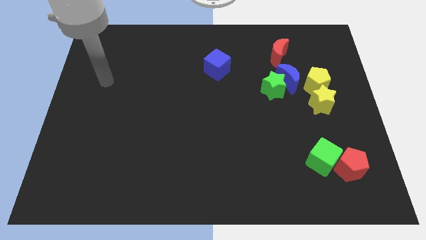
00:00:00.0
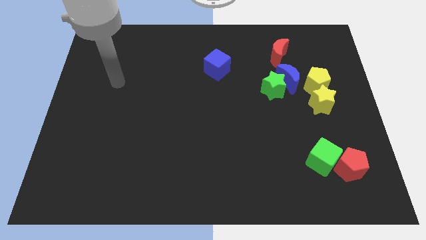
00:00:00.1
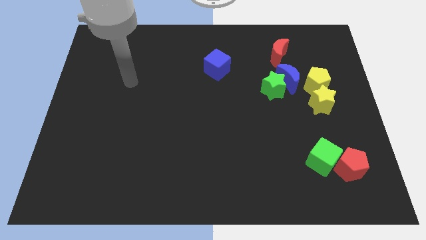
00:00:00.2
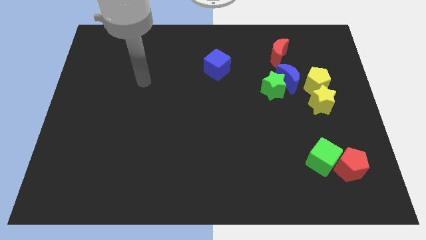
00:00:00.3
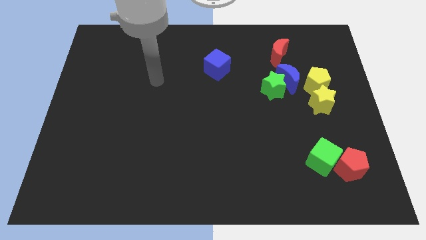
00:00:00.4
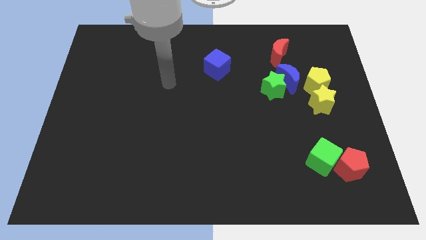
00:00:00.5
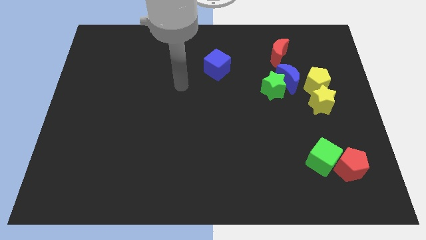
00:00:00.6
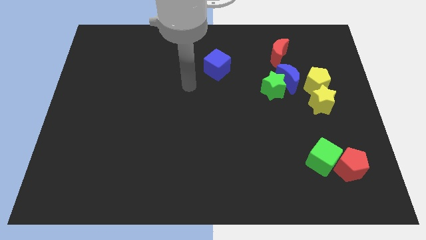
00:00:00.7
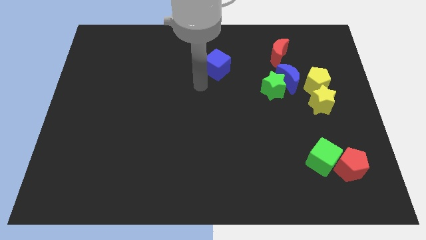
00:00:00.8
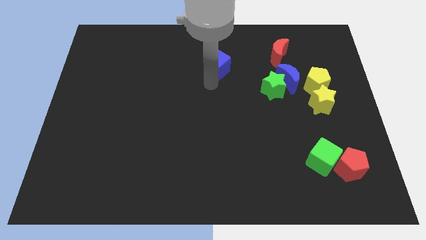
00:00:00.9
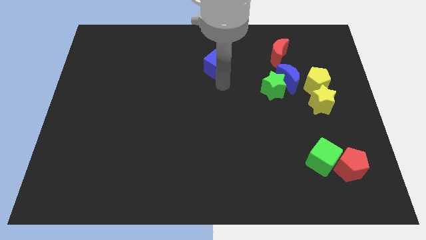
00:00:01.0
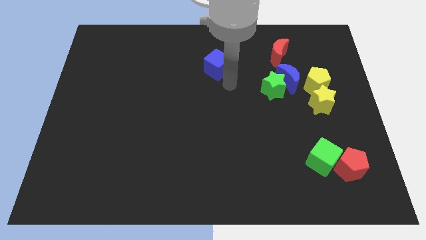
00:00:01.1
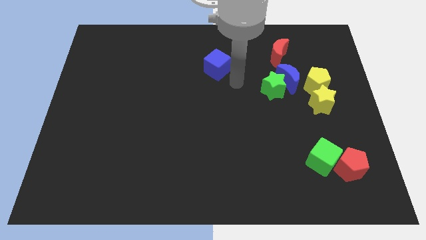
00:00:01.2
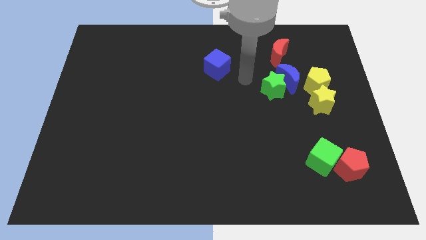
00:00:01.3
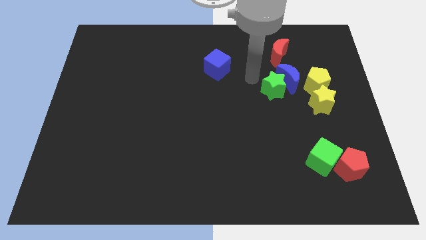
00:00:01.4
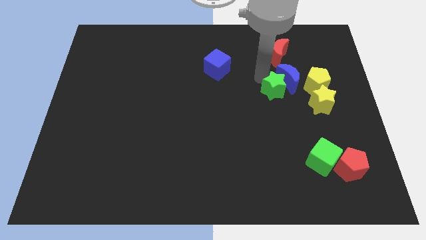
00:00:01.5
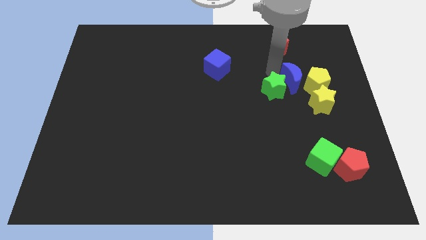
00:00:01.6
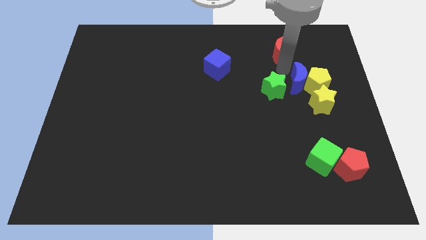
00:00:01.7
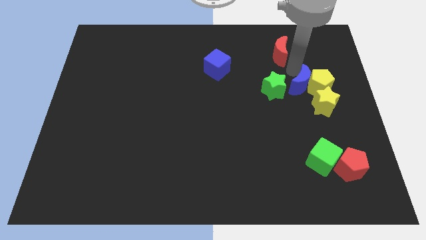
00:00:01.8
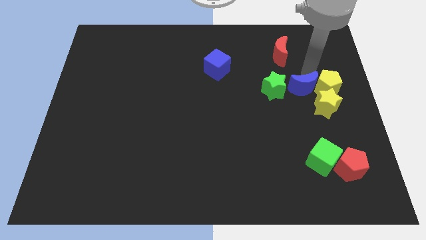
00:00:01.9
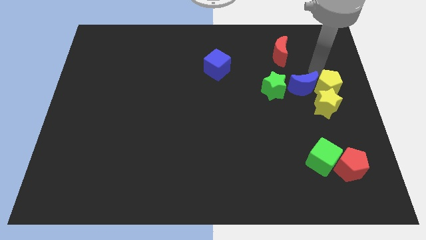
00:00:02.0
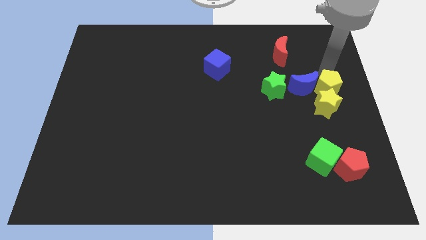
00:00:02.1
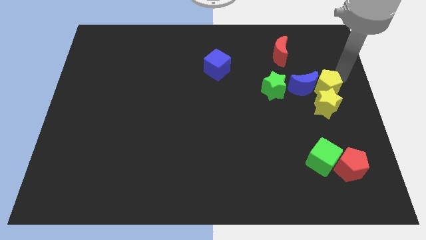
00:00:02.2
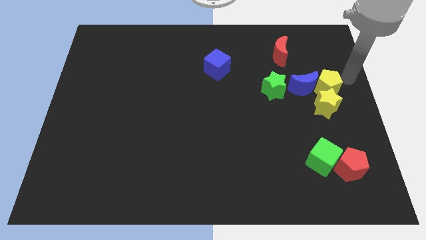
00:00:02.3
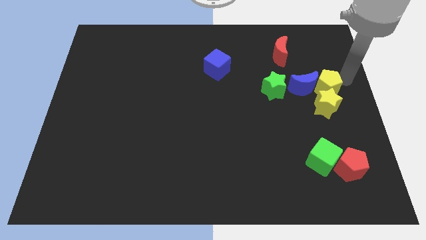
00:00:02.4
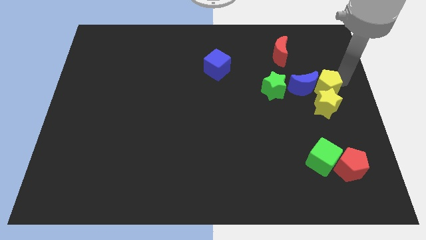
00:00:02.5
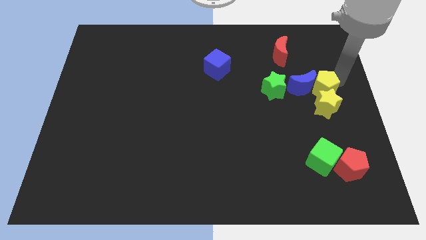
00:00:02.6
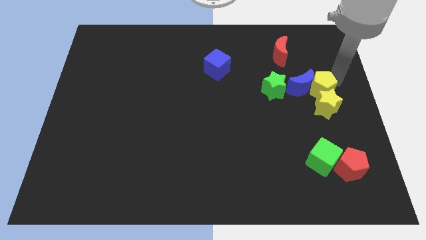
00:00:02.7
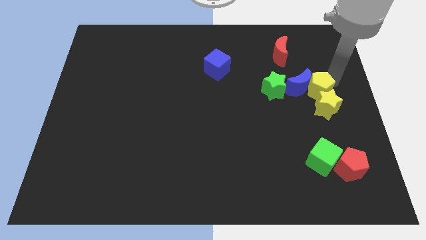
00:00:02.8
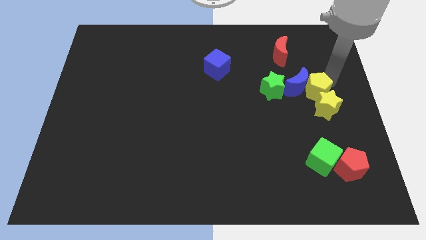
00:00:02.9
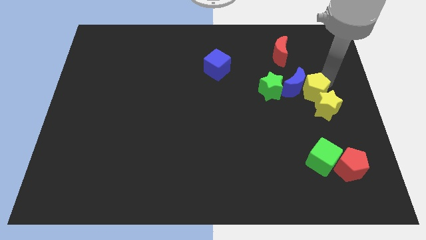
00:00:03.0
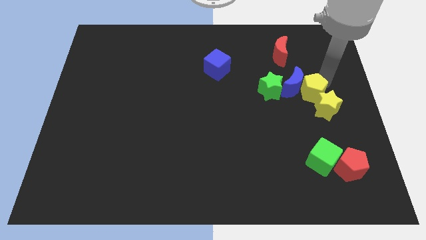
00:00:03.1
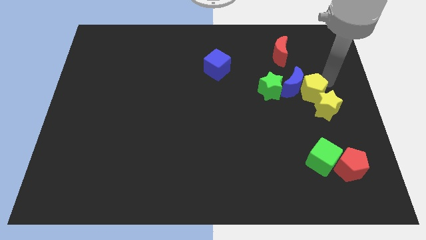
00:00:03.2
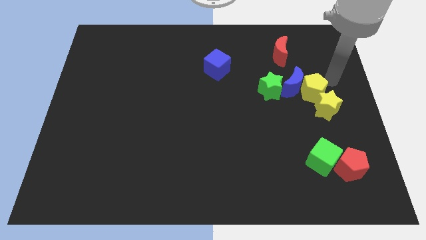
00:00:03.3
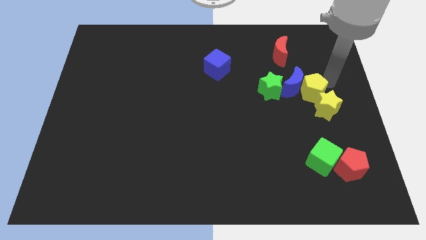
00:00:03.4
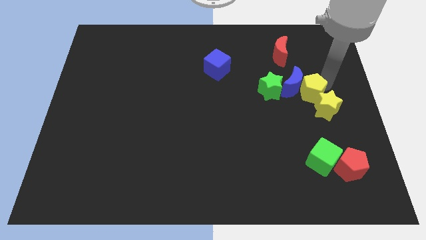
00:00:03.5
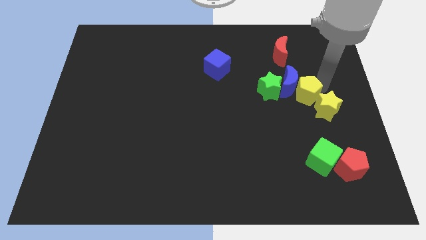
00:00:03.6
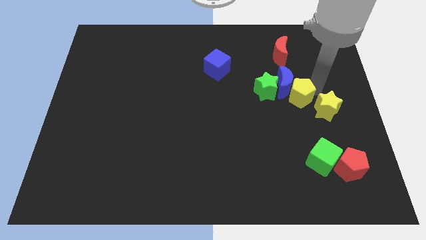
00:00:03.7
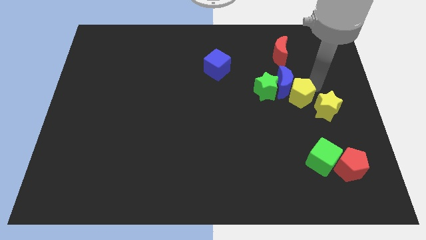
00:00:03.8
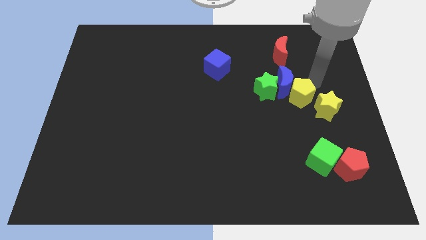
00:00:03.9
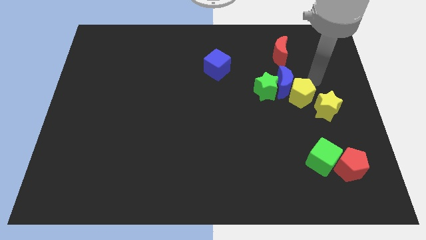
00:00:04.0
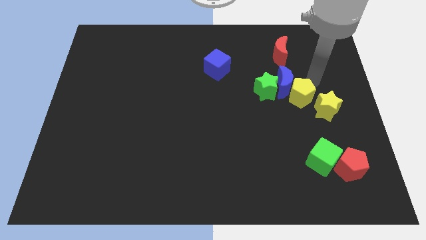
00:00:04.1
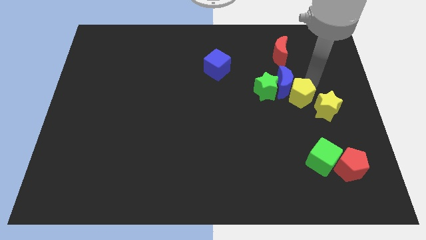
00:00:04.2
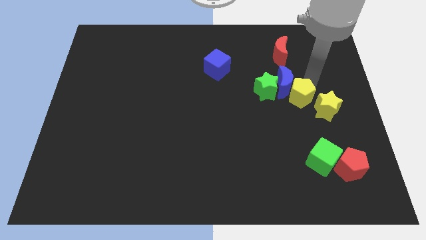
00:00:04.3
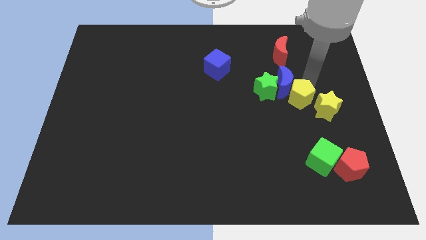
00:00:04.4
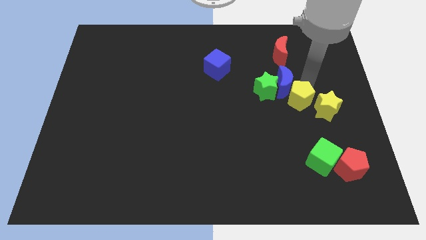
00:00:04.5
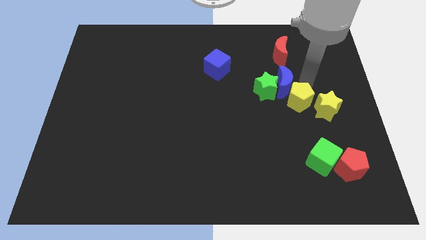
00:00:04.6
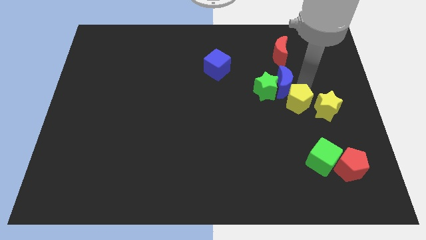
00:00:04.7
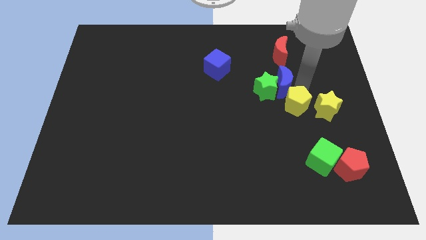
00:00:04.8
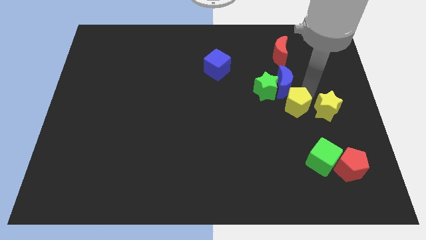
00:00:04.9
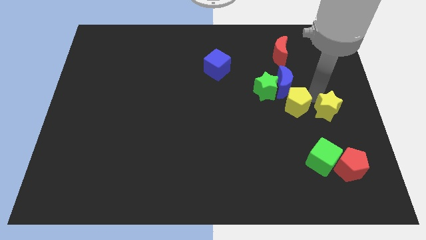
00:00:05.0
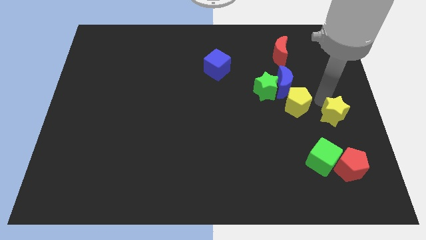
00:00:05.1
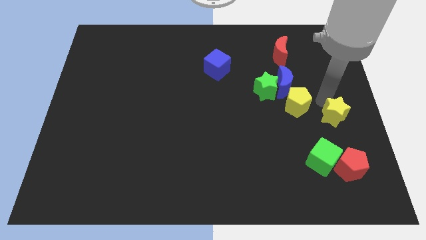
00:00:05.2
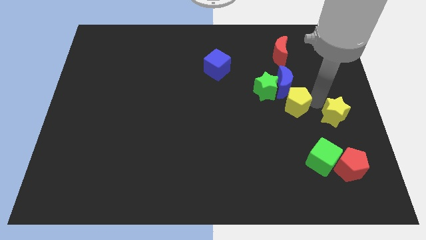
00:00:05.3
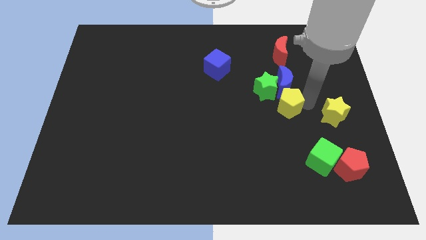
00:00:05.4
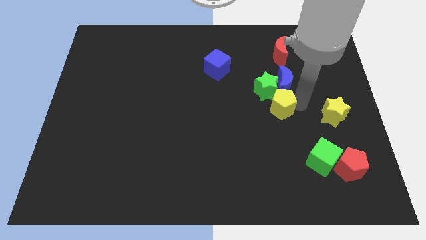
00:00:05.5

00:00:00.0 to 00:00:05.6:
slide the yellow pentagon to the left a little

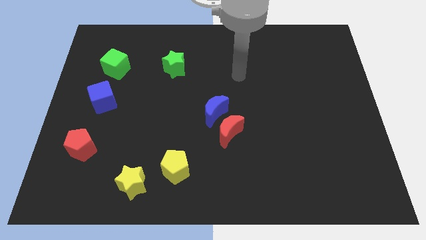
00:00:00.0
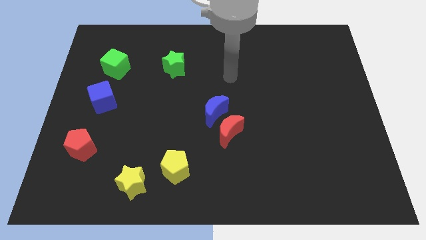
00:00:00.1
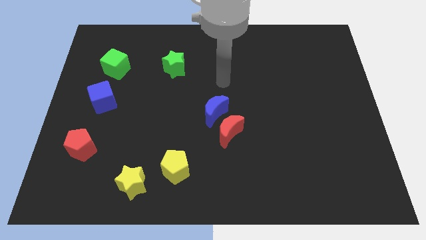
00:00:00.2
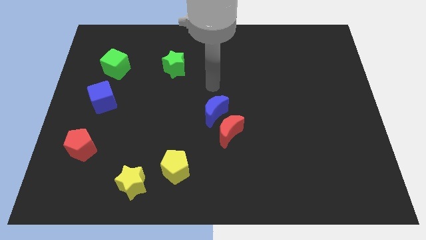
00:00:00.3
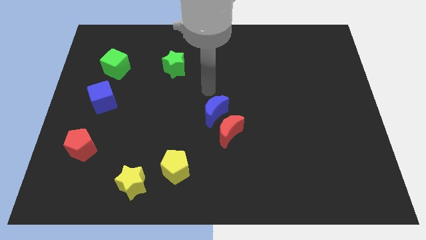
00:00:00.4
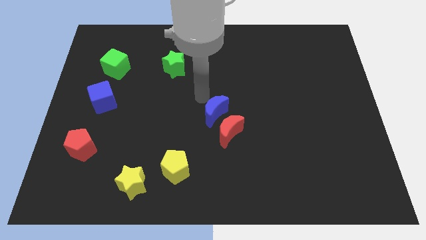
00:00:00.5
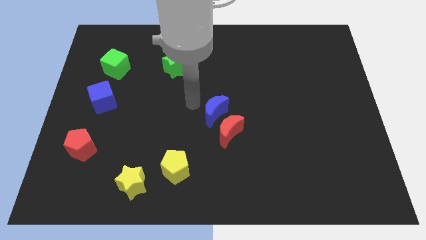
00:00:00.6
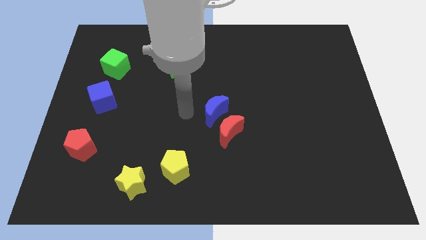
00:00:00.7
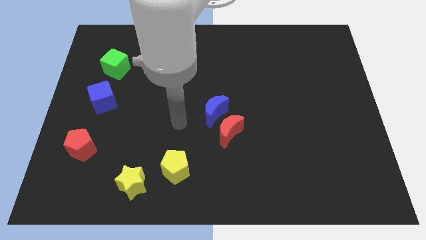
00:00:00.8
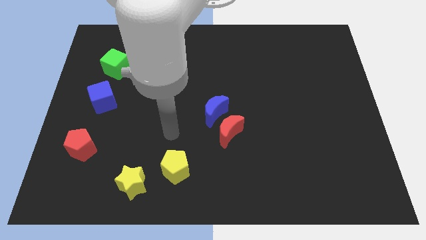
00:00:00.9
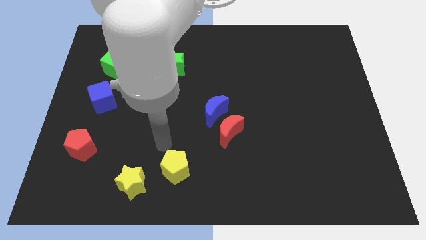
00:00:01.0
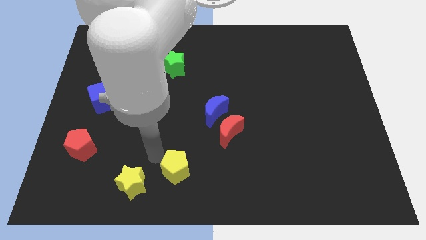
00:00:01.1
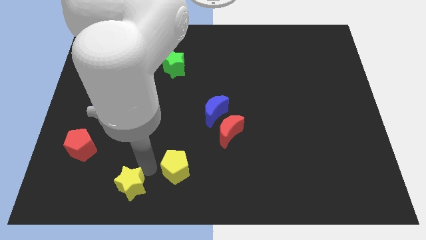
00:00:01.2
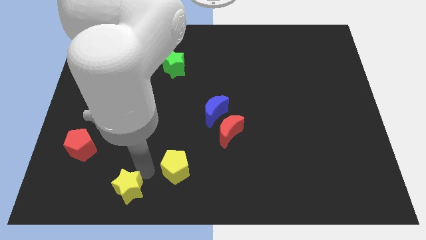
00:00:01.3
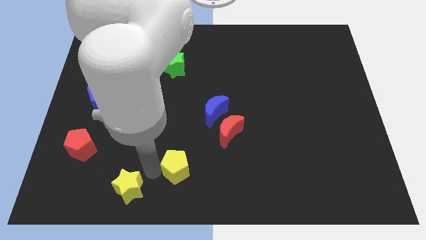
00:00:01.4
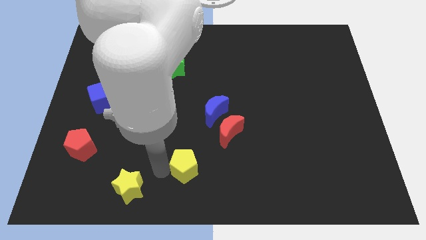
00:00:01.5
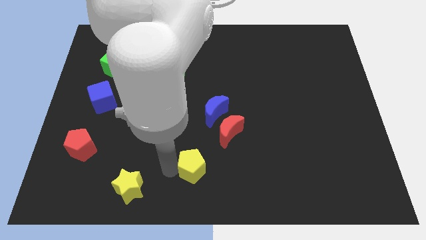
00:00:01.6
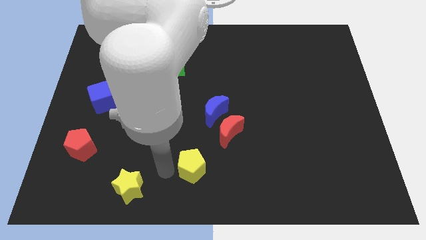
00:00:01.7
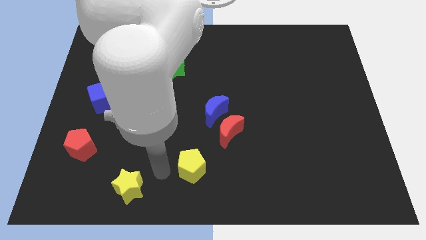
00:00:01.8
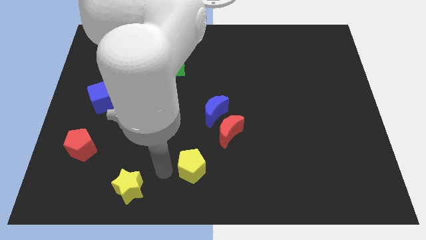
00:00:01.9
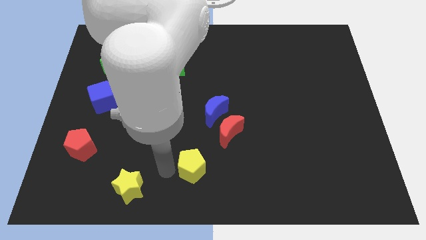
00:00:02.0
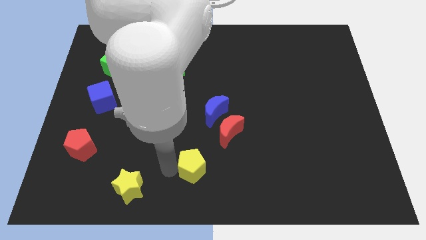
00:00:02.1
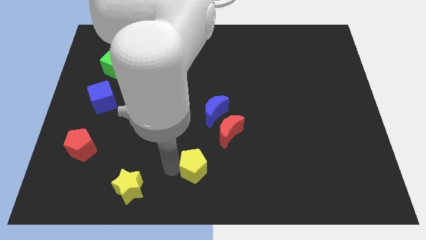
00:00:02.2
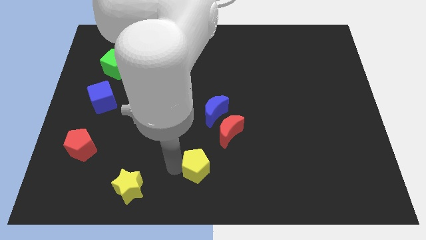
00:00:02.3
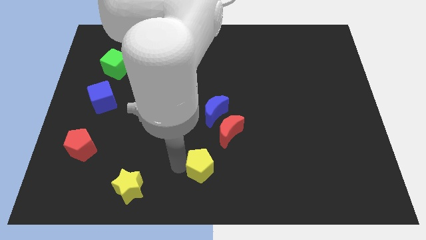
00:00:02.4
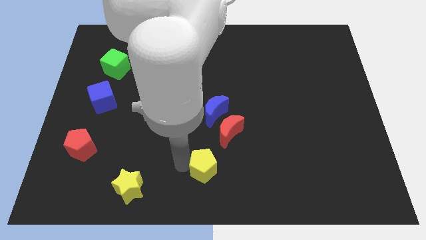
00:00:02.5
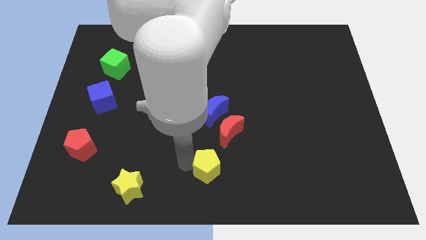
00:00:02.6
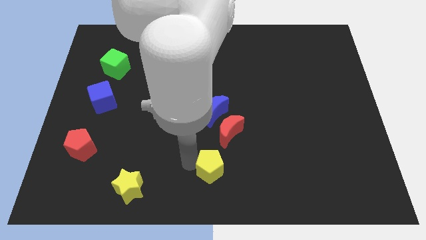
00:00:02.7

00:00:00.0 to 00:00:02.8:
slide the yellow pentagon a little bit to the right

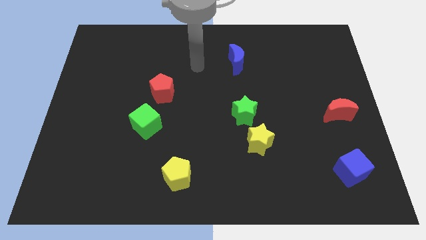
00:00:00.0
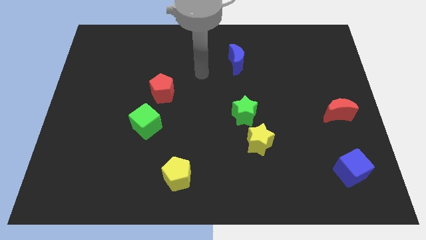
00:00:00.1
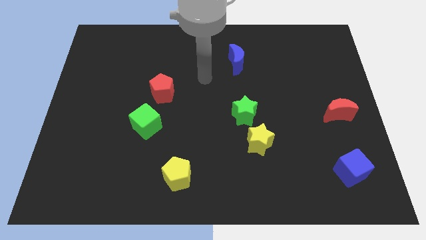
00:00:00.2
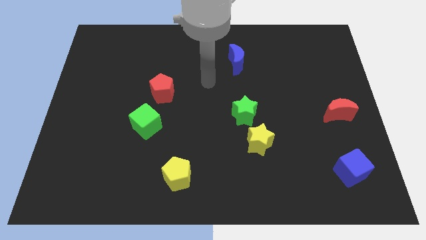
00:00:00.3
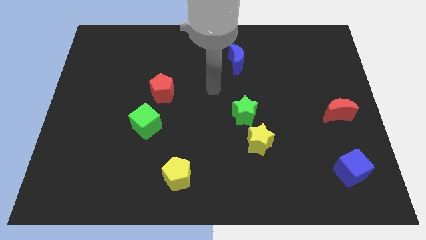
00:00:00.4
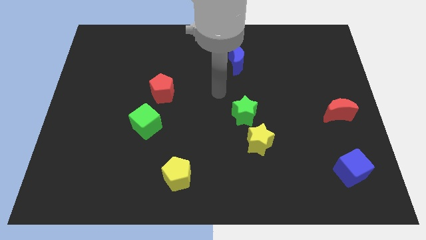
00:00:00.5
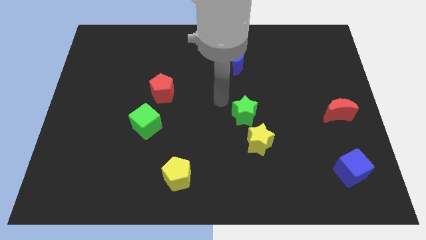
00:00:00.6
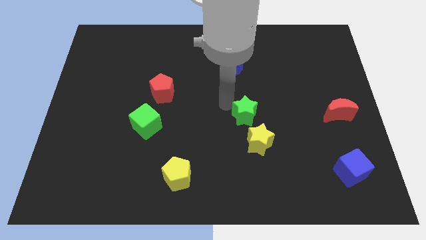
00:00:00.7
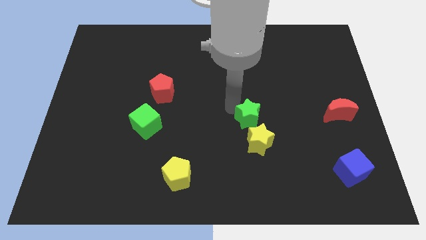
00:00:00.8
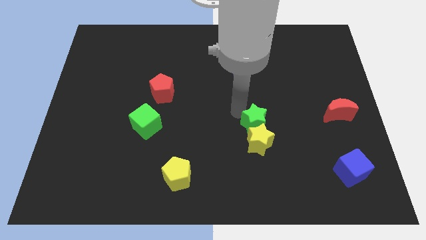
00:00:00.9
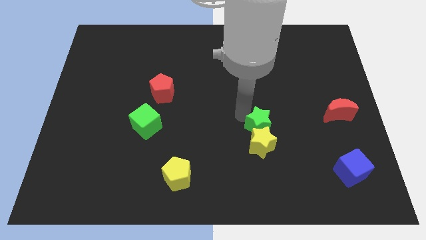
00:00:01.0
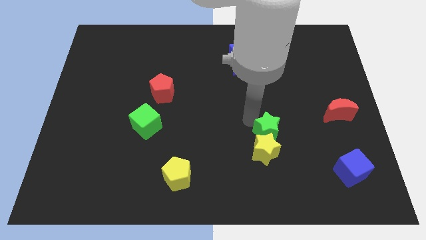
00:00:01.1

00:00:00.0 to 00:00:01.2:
slide the green star somewhat downwards and then to the right
